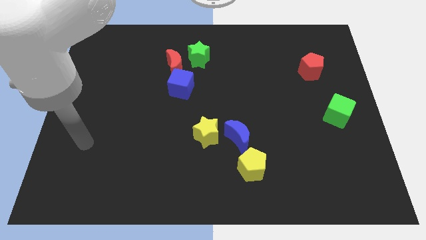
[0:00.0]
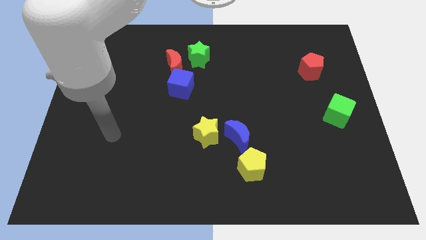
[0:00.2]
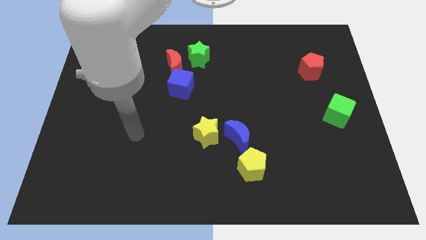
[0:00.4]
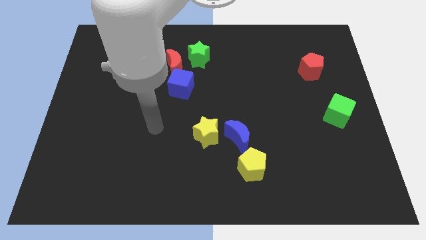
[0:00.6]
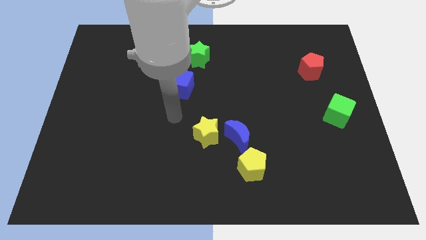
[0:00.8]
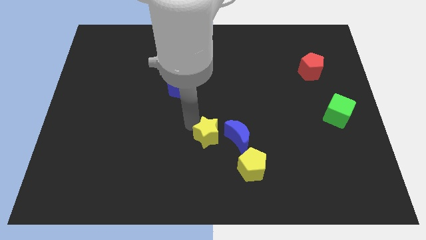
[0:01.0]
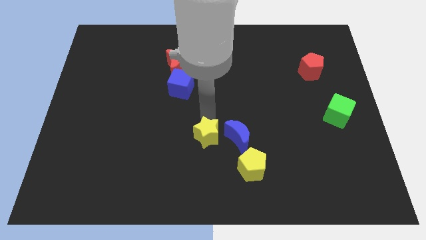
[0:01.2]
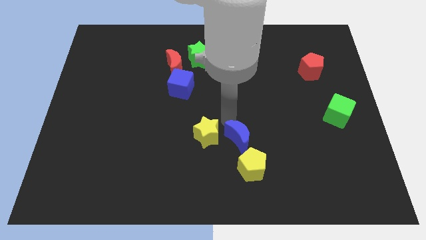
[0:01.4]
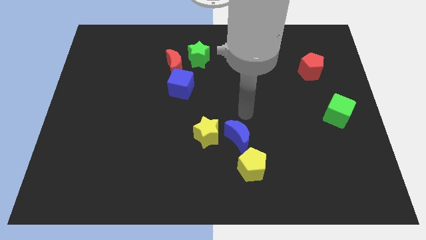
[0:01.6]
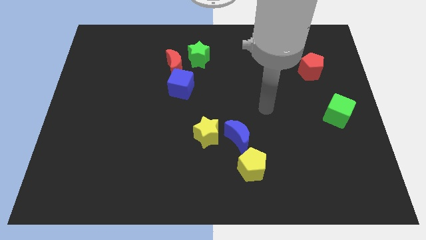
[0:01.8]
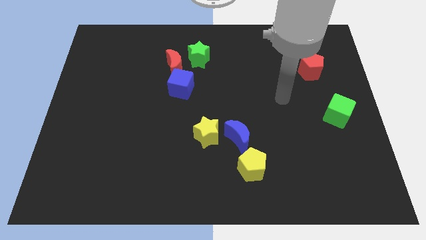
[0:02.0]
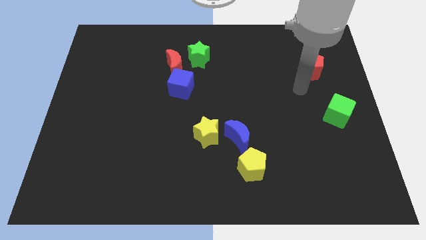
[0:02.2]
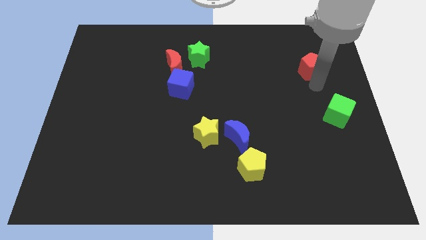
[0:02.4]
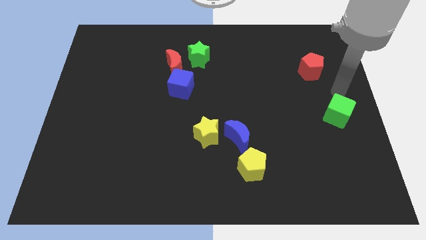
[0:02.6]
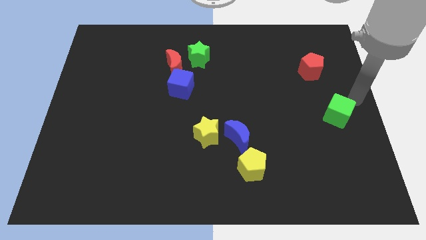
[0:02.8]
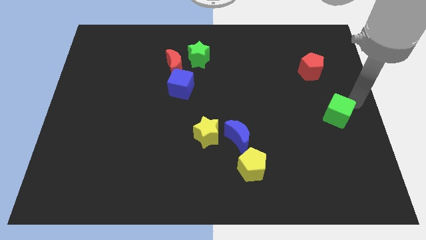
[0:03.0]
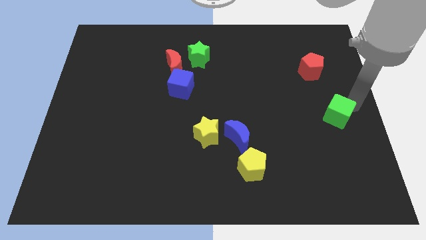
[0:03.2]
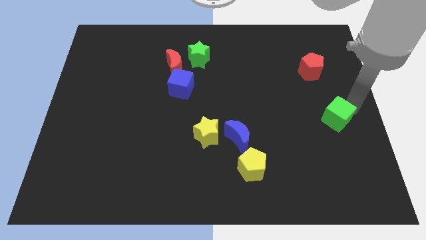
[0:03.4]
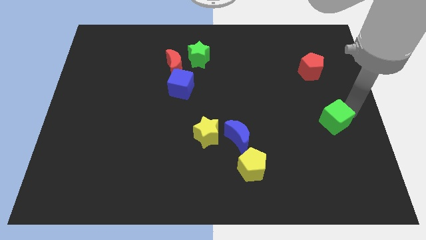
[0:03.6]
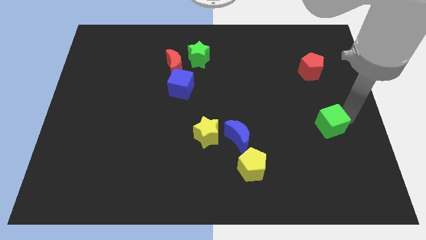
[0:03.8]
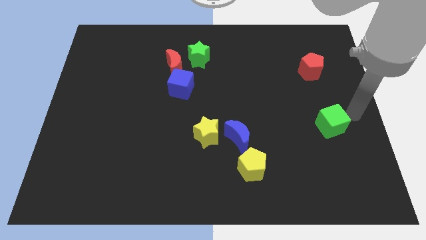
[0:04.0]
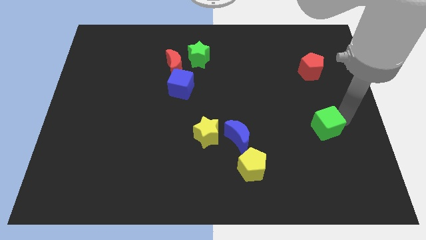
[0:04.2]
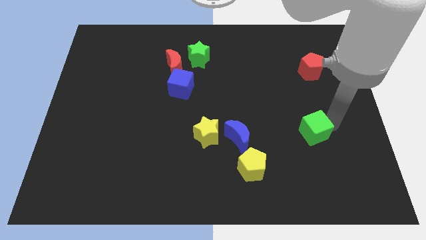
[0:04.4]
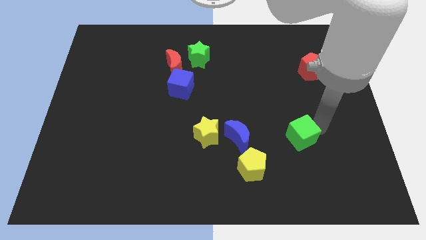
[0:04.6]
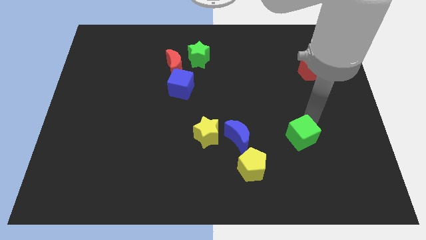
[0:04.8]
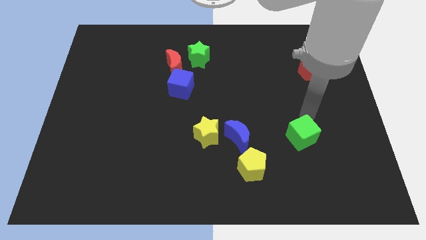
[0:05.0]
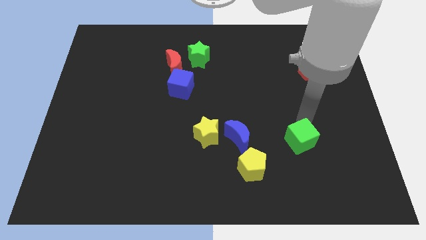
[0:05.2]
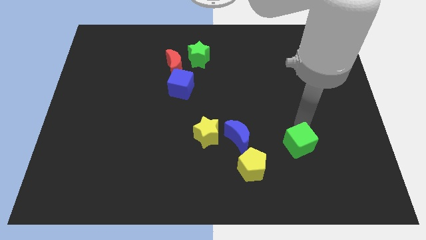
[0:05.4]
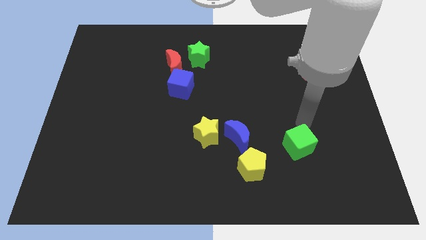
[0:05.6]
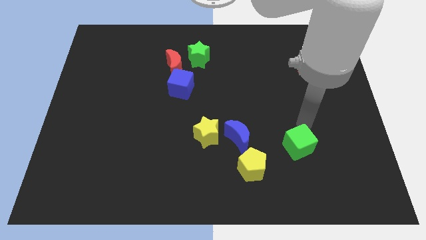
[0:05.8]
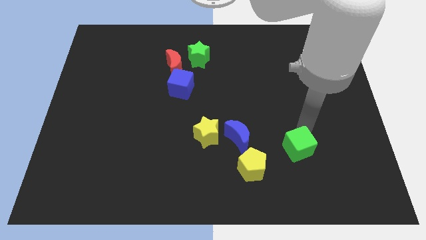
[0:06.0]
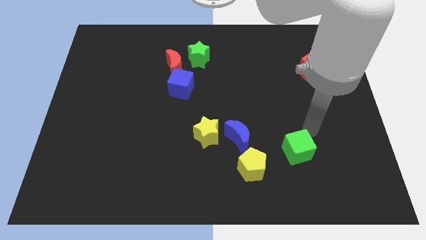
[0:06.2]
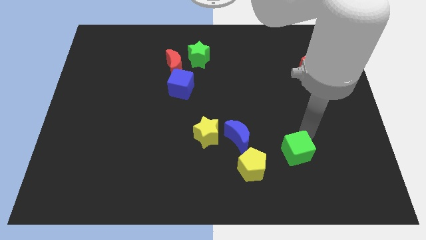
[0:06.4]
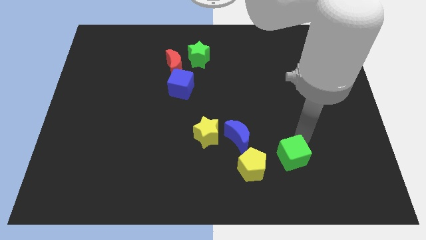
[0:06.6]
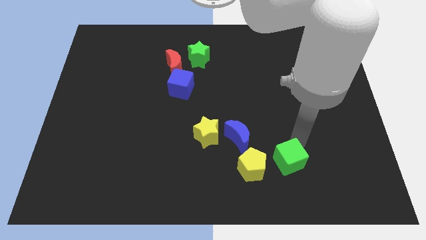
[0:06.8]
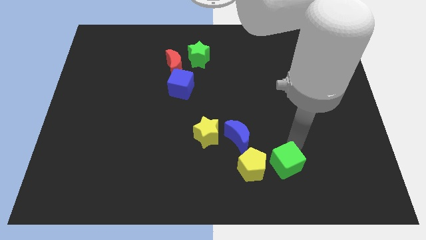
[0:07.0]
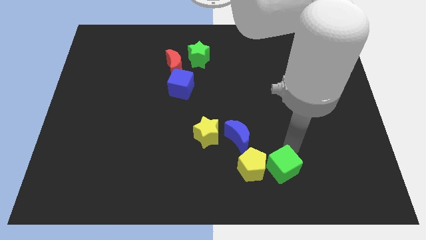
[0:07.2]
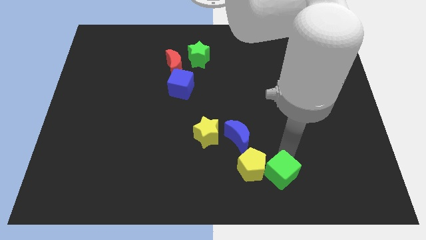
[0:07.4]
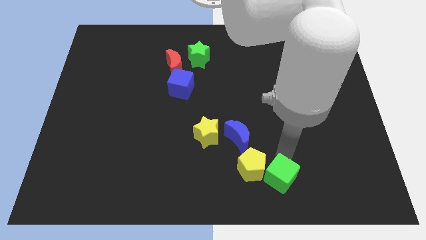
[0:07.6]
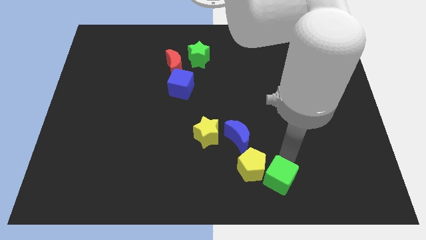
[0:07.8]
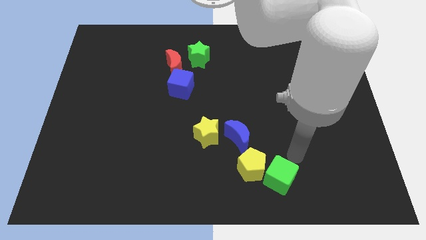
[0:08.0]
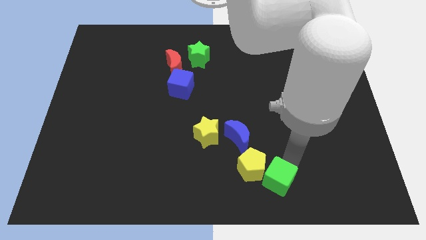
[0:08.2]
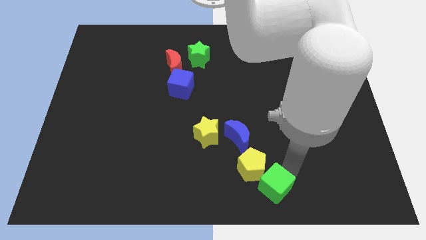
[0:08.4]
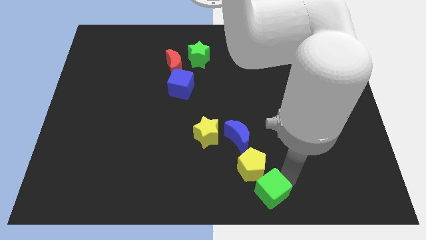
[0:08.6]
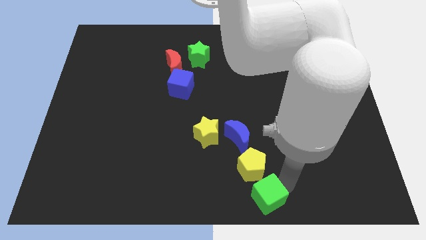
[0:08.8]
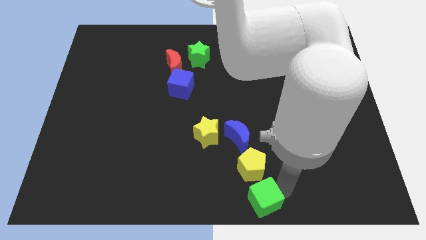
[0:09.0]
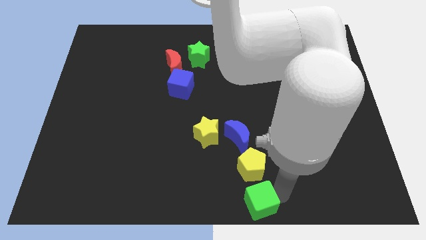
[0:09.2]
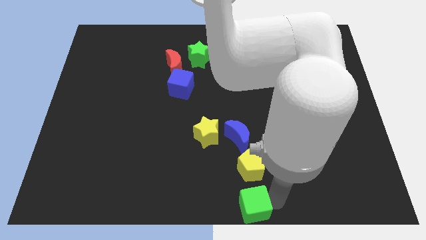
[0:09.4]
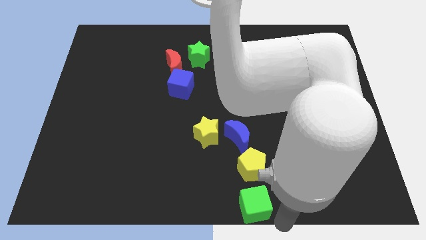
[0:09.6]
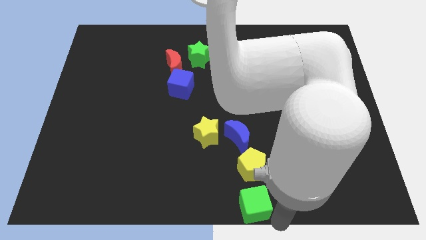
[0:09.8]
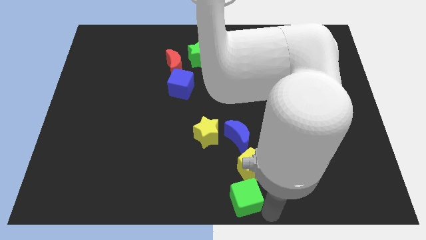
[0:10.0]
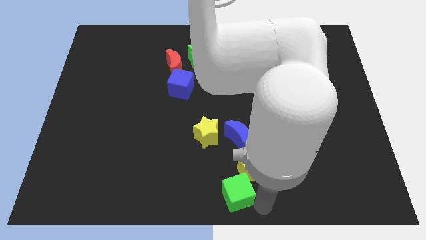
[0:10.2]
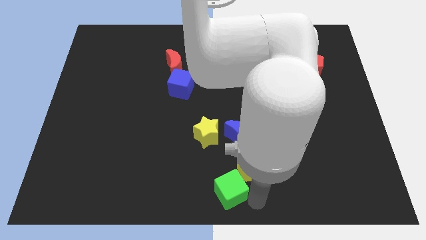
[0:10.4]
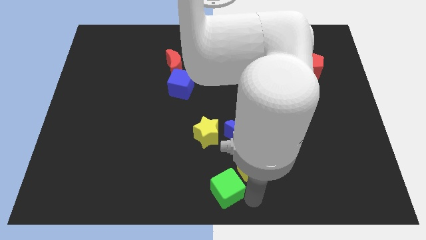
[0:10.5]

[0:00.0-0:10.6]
move the green cube to the bottom of the yellow star

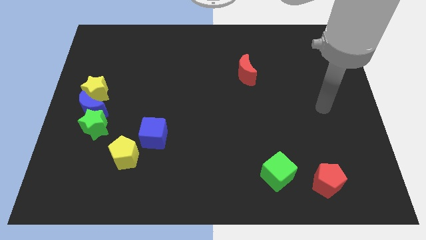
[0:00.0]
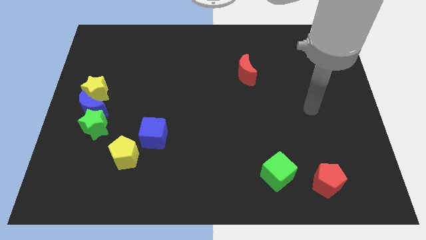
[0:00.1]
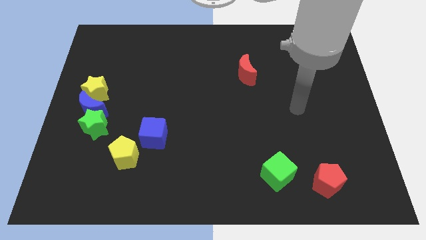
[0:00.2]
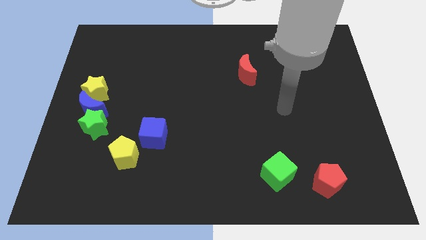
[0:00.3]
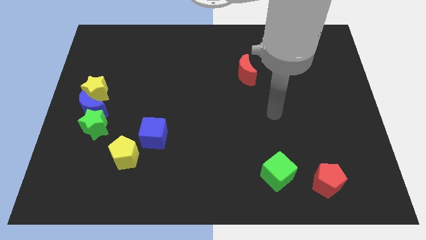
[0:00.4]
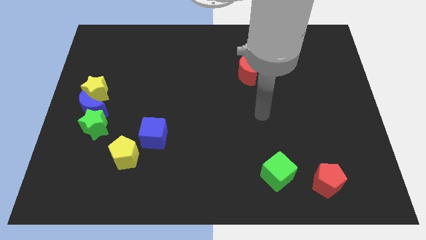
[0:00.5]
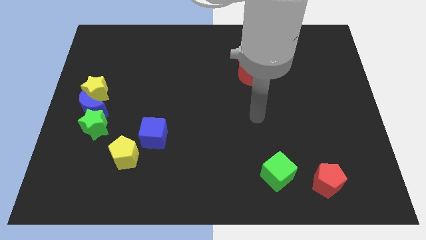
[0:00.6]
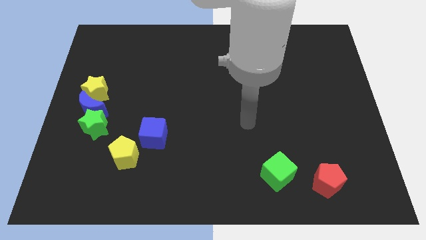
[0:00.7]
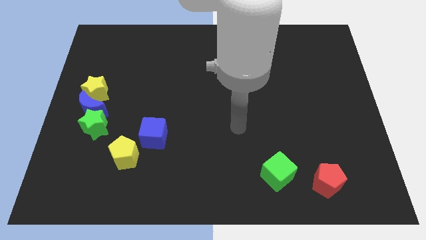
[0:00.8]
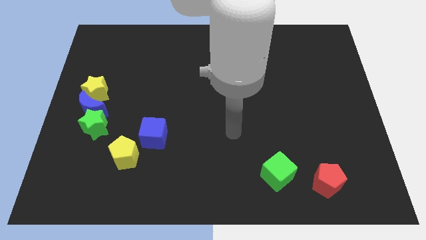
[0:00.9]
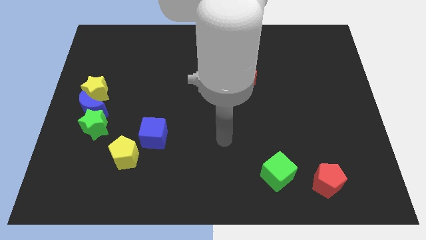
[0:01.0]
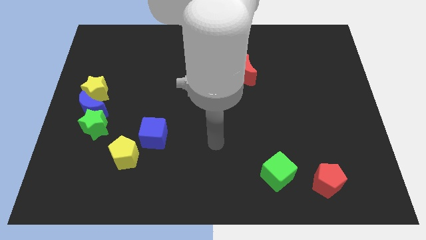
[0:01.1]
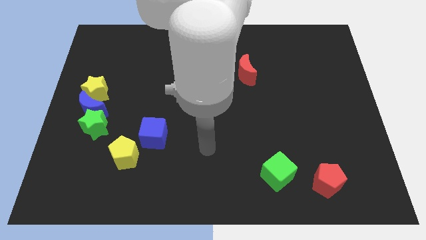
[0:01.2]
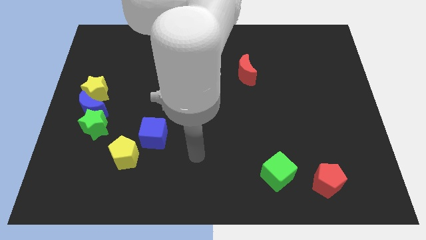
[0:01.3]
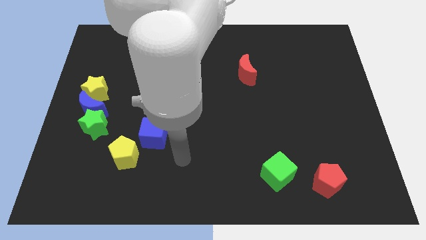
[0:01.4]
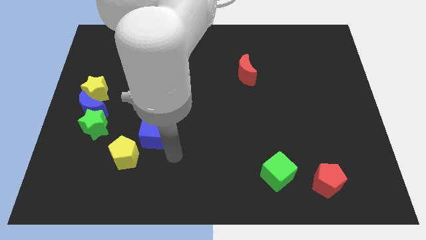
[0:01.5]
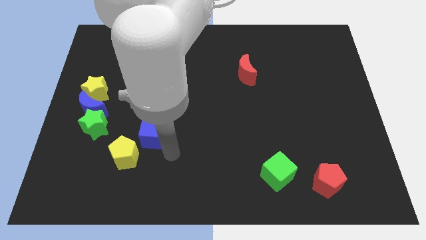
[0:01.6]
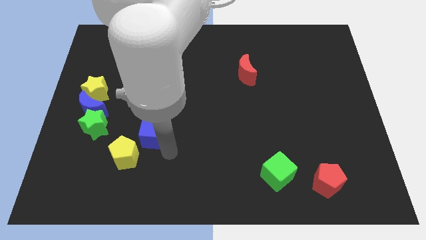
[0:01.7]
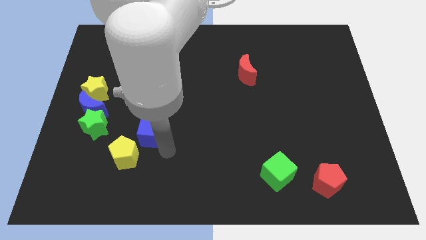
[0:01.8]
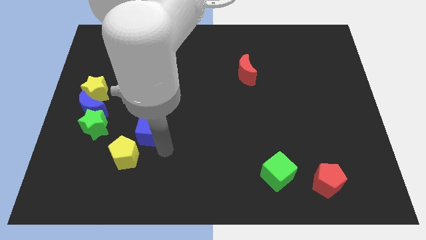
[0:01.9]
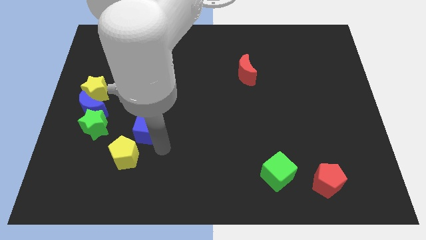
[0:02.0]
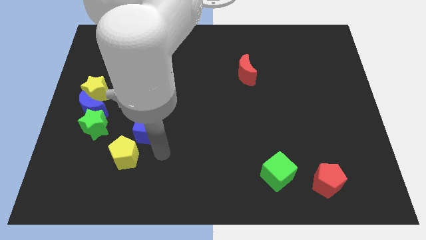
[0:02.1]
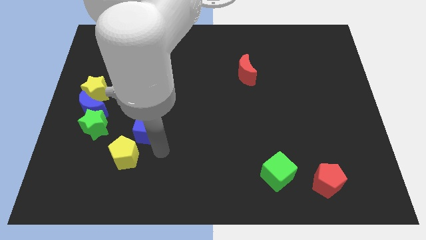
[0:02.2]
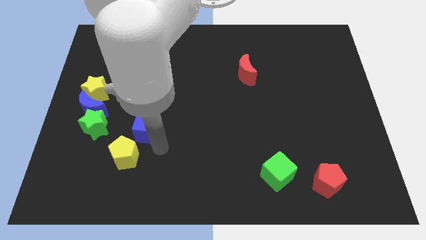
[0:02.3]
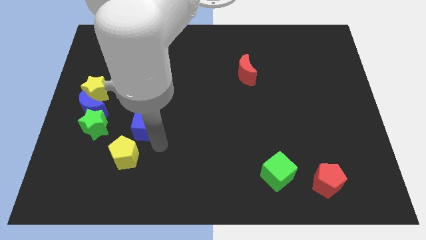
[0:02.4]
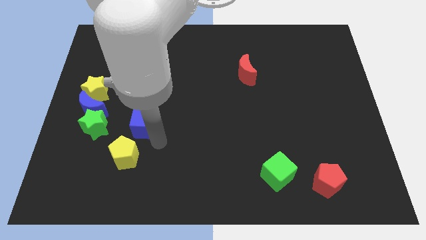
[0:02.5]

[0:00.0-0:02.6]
move the blue cube right of the blue moon
